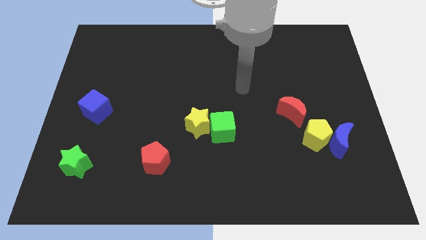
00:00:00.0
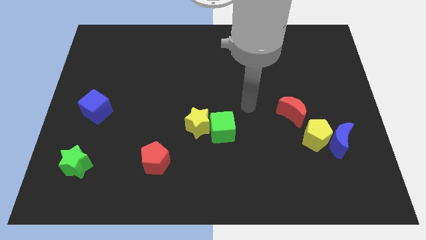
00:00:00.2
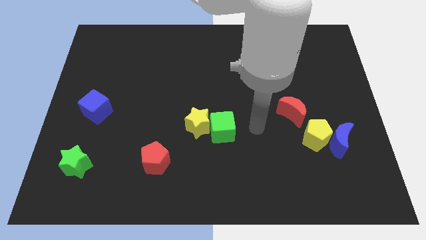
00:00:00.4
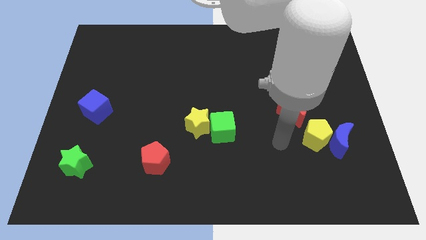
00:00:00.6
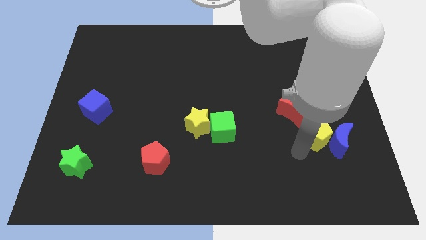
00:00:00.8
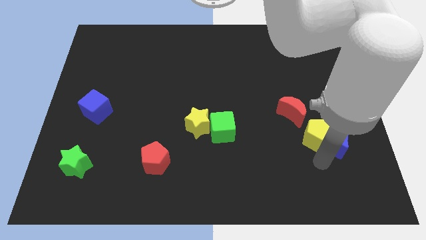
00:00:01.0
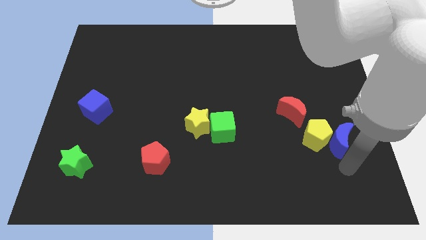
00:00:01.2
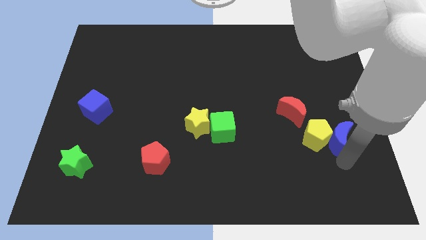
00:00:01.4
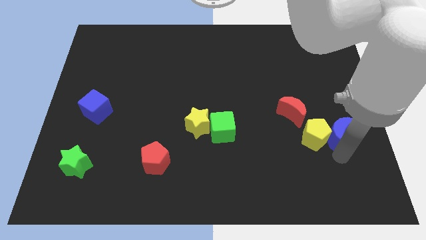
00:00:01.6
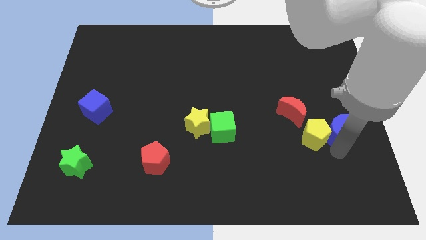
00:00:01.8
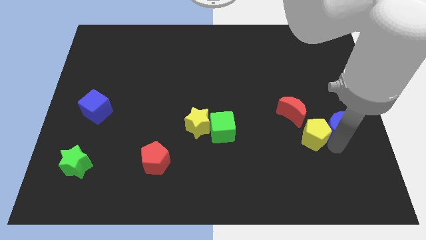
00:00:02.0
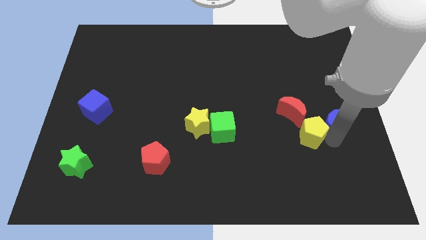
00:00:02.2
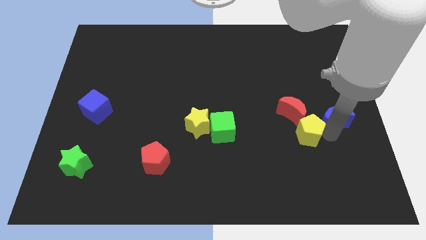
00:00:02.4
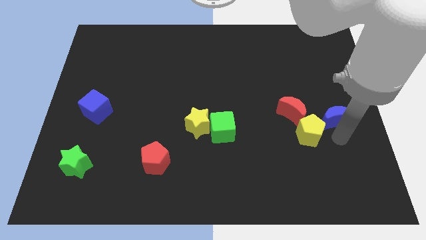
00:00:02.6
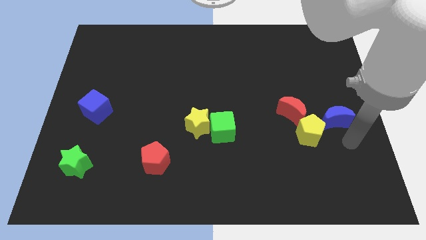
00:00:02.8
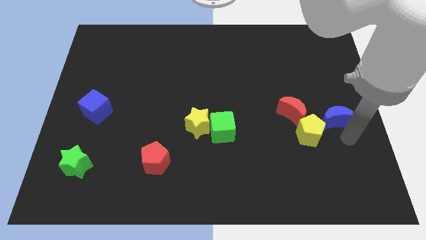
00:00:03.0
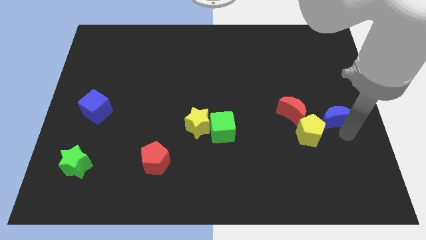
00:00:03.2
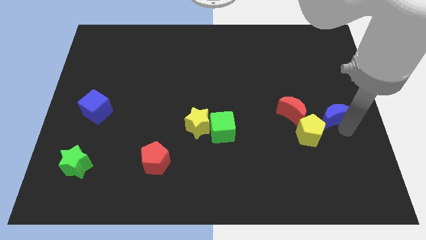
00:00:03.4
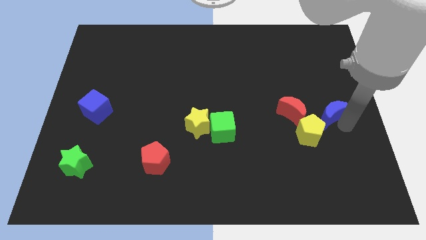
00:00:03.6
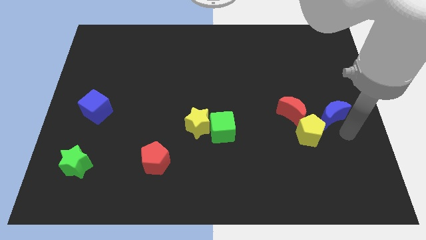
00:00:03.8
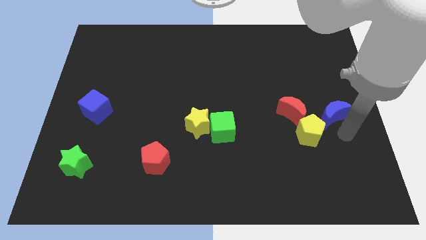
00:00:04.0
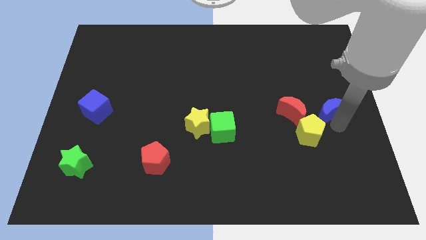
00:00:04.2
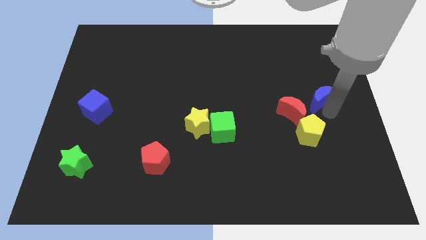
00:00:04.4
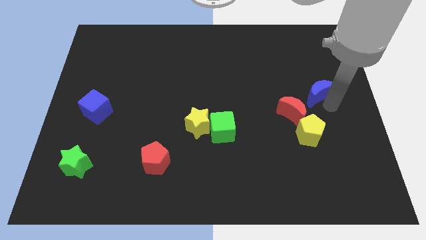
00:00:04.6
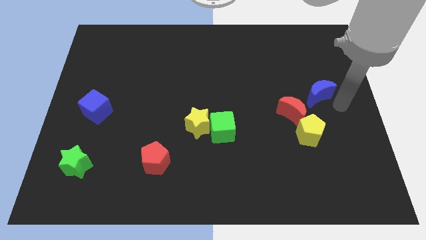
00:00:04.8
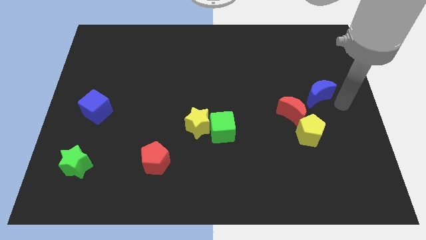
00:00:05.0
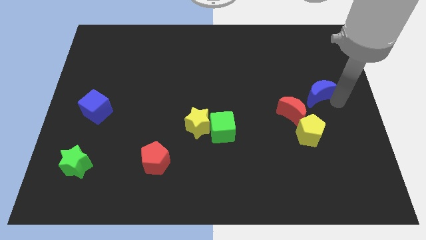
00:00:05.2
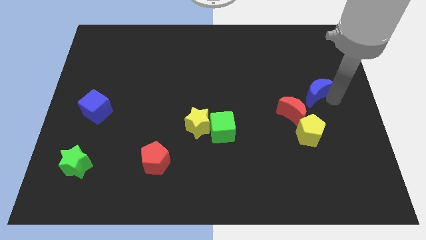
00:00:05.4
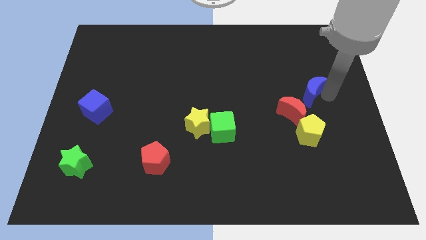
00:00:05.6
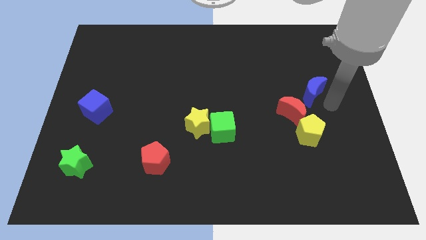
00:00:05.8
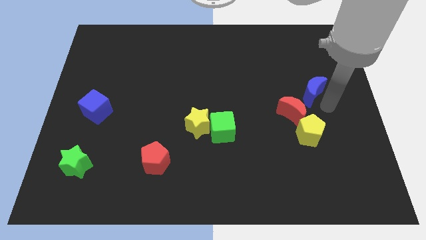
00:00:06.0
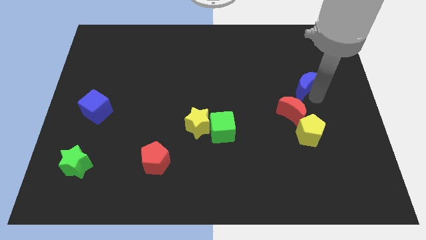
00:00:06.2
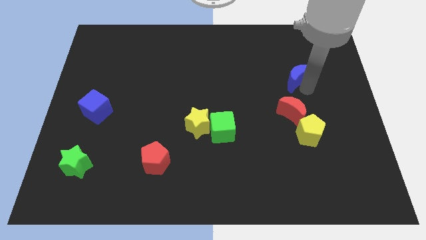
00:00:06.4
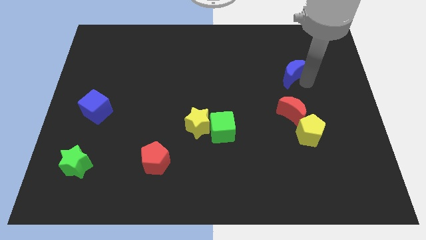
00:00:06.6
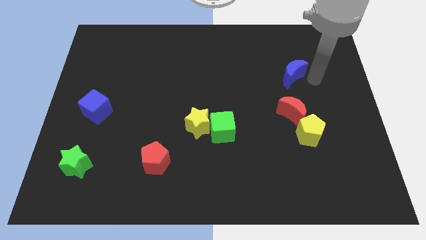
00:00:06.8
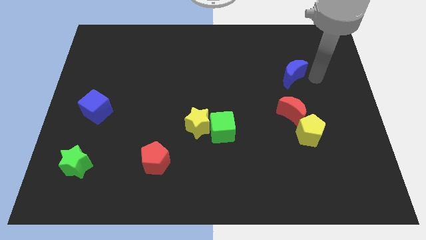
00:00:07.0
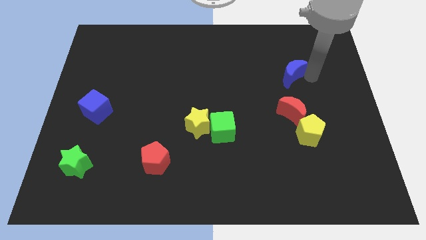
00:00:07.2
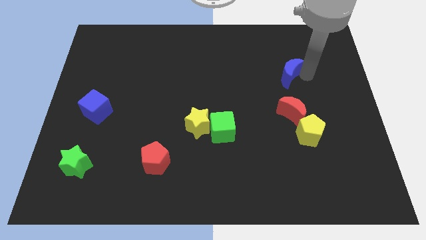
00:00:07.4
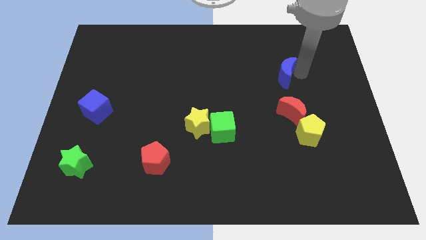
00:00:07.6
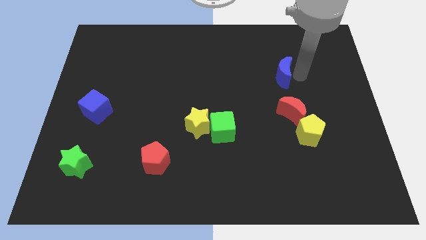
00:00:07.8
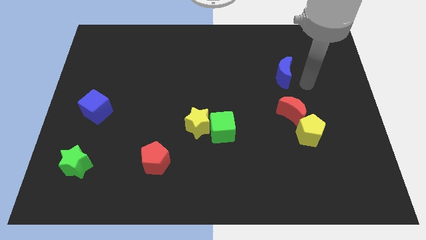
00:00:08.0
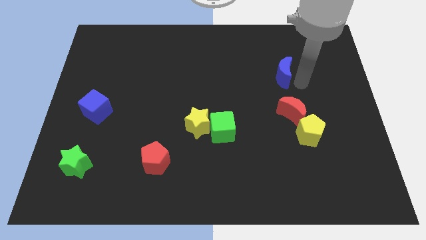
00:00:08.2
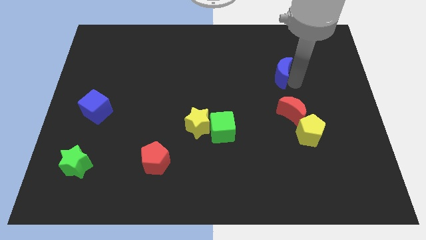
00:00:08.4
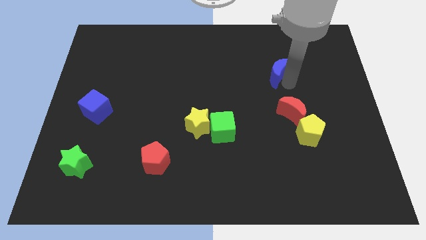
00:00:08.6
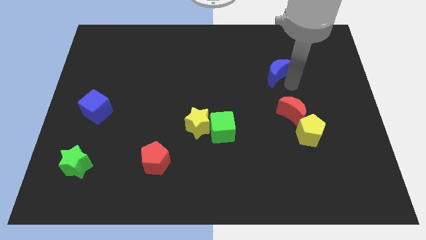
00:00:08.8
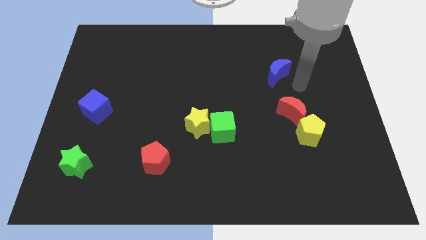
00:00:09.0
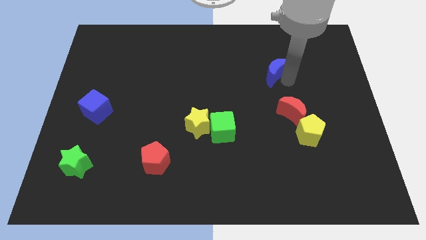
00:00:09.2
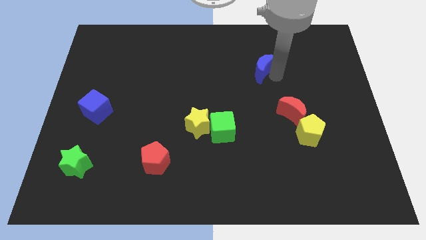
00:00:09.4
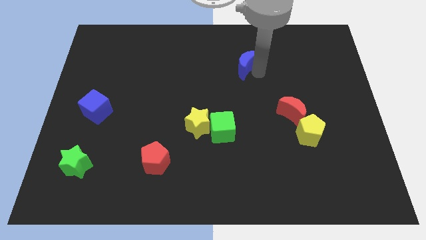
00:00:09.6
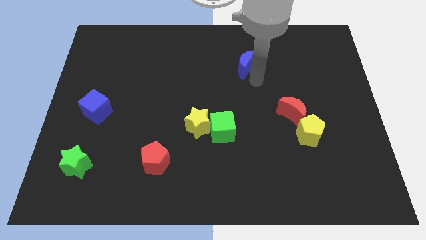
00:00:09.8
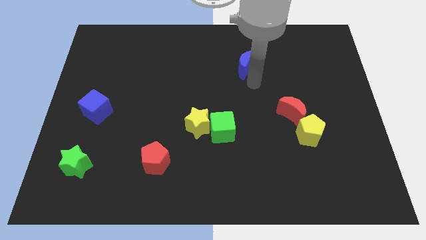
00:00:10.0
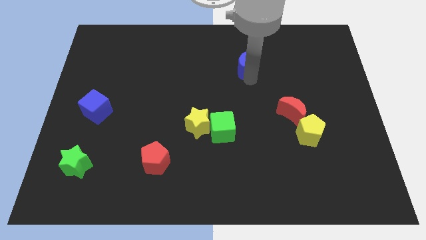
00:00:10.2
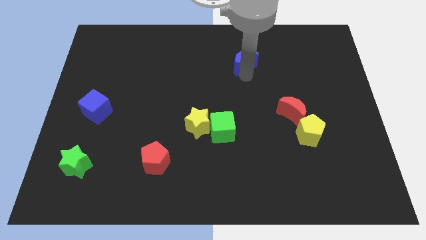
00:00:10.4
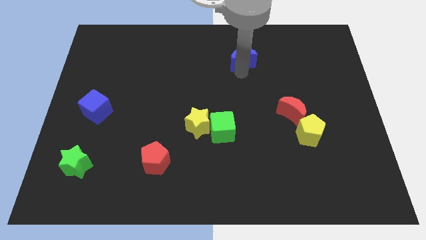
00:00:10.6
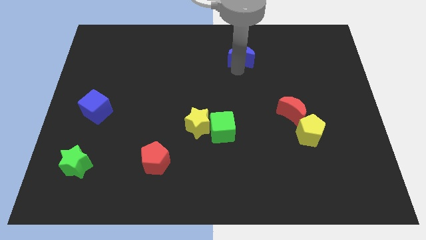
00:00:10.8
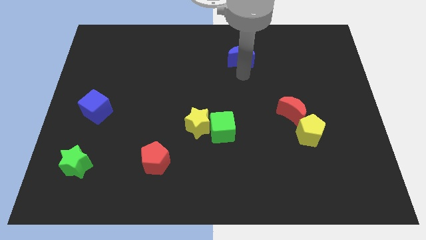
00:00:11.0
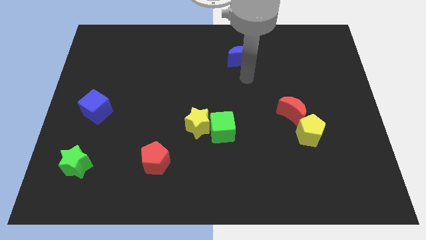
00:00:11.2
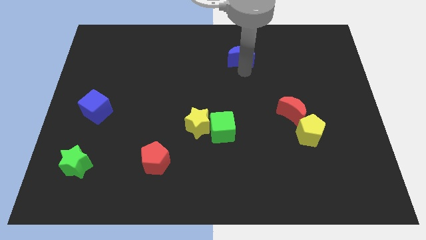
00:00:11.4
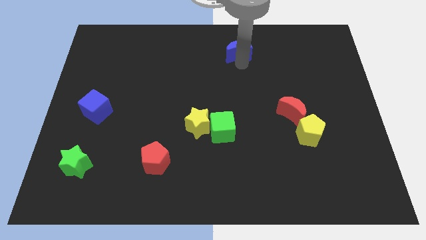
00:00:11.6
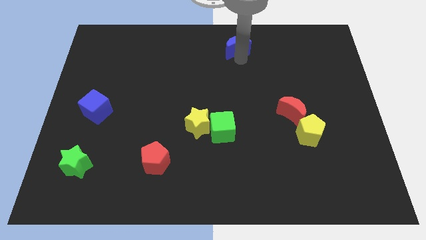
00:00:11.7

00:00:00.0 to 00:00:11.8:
slide the blue moon to the top side
